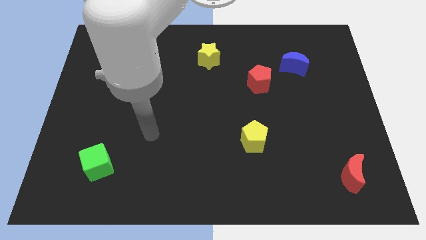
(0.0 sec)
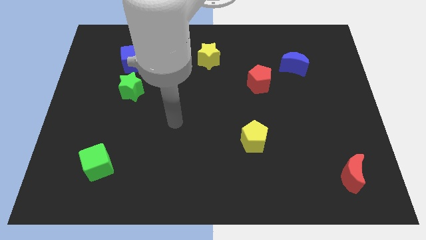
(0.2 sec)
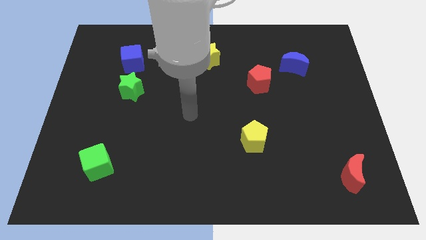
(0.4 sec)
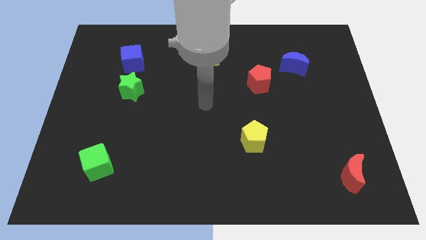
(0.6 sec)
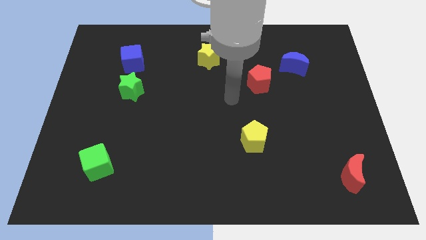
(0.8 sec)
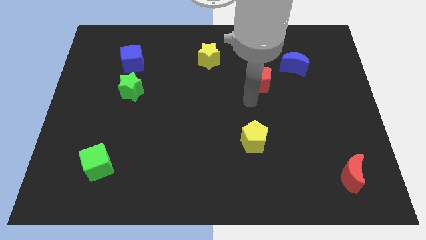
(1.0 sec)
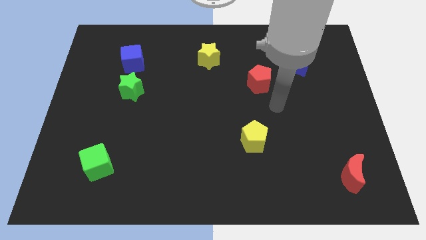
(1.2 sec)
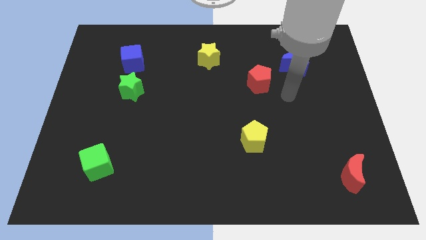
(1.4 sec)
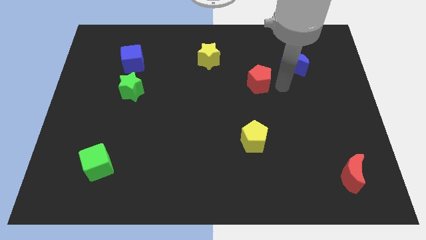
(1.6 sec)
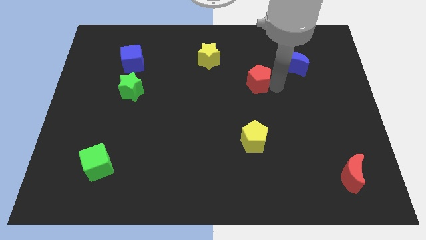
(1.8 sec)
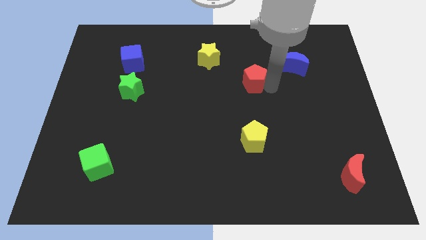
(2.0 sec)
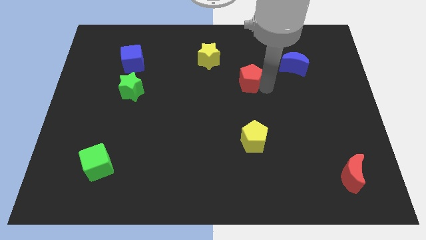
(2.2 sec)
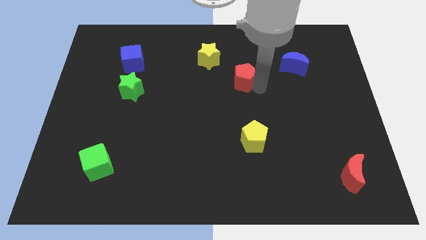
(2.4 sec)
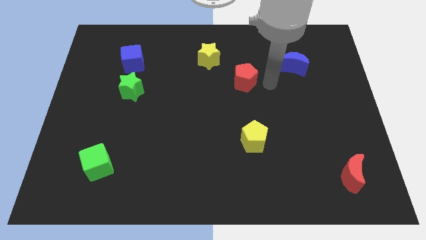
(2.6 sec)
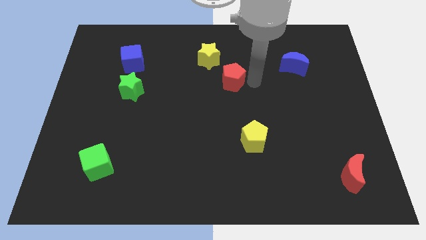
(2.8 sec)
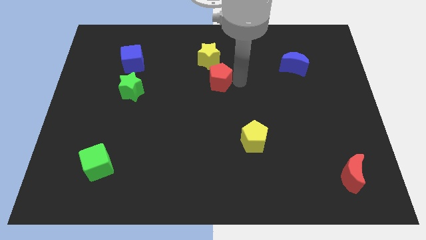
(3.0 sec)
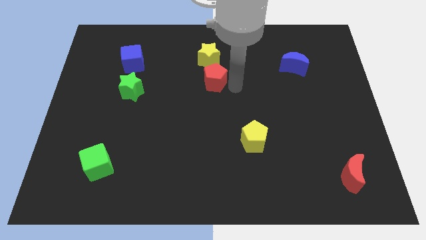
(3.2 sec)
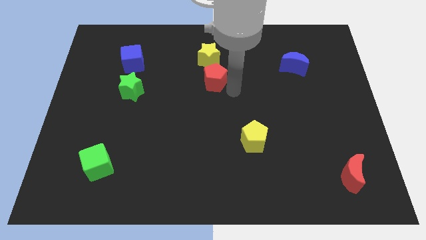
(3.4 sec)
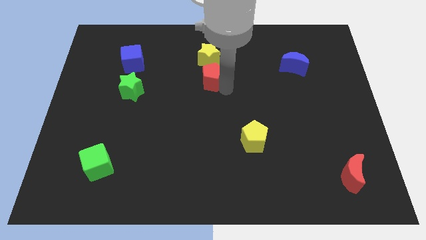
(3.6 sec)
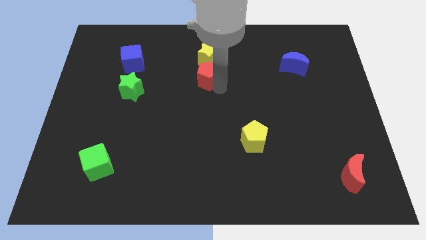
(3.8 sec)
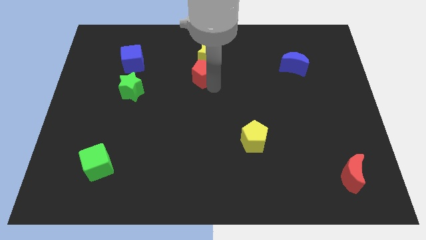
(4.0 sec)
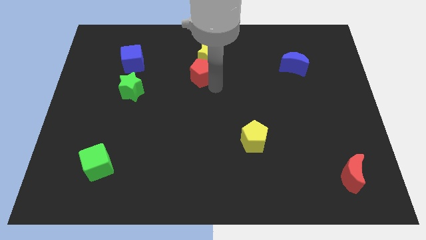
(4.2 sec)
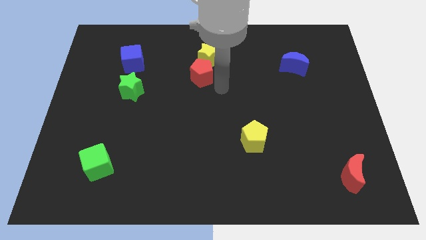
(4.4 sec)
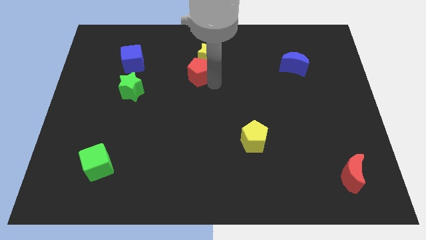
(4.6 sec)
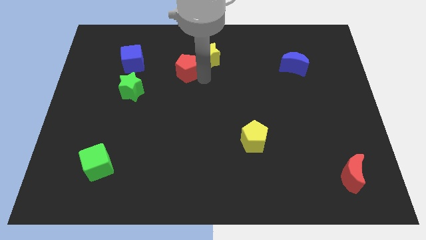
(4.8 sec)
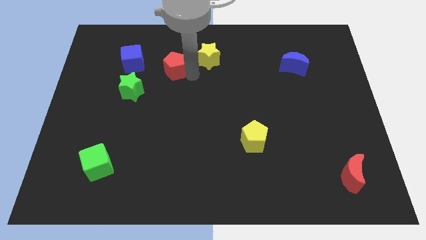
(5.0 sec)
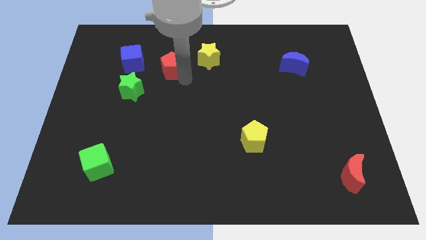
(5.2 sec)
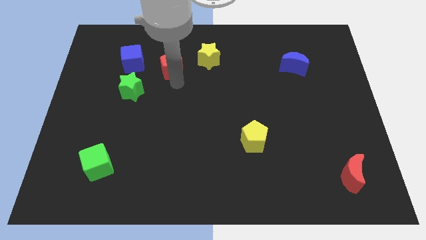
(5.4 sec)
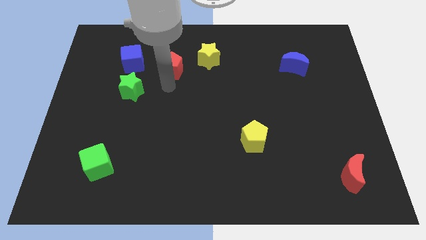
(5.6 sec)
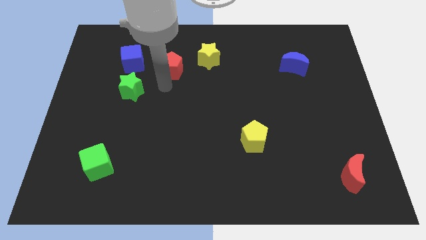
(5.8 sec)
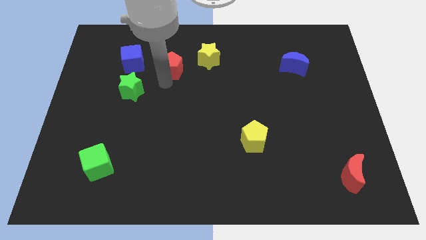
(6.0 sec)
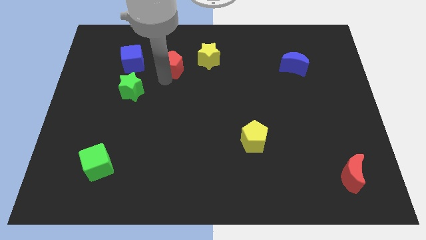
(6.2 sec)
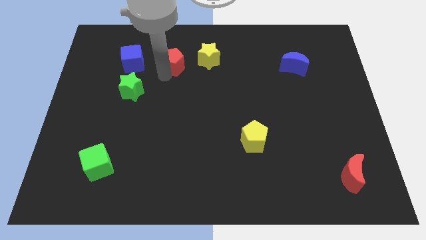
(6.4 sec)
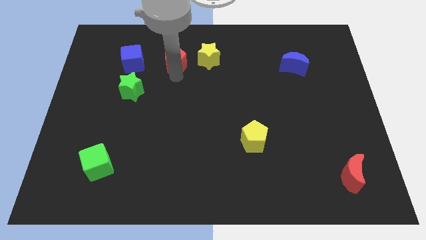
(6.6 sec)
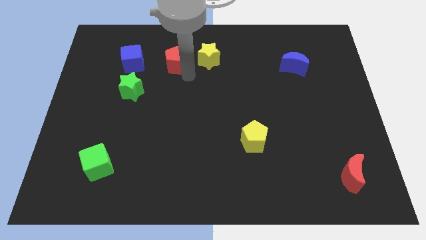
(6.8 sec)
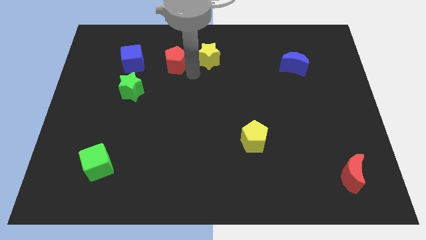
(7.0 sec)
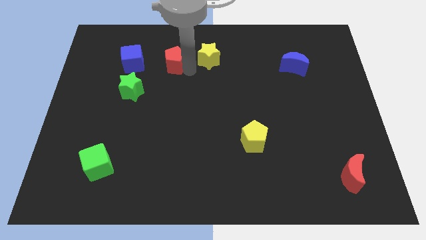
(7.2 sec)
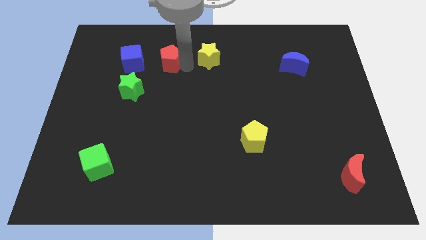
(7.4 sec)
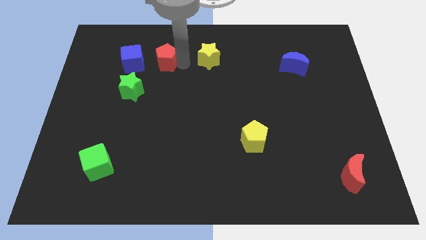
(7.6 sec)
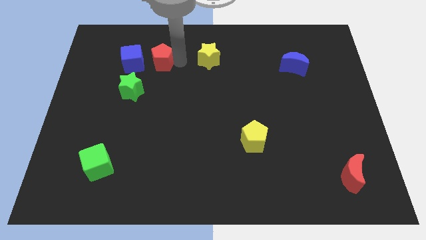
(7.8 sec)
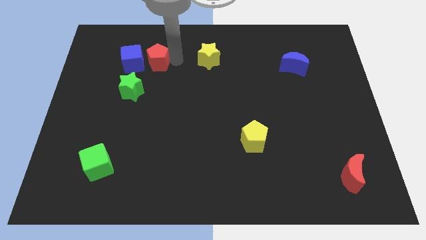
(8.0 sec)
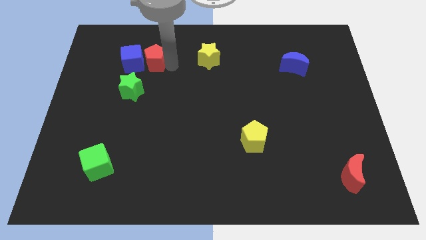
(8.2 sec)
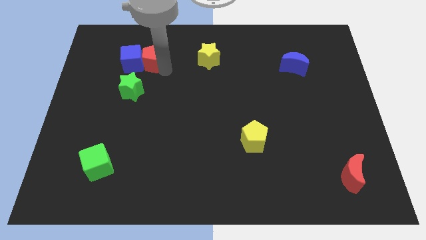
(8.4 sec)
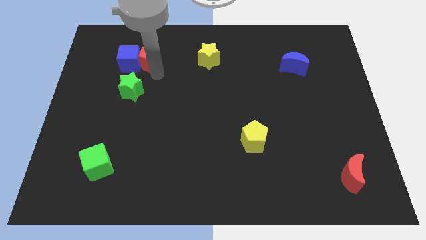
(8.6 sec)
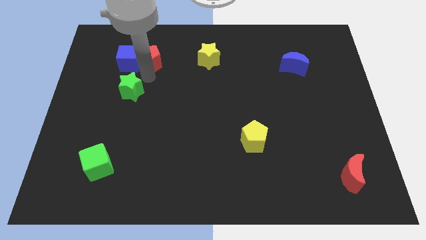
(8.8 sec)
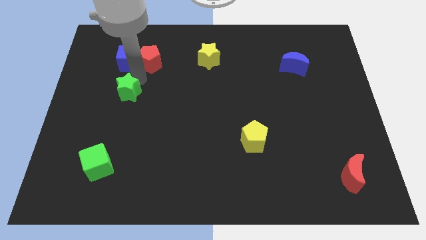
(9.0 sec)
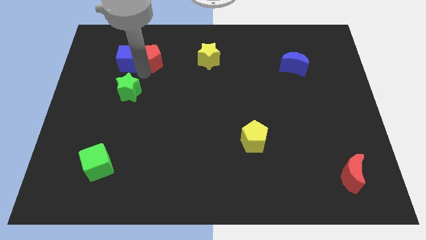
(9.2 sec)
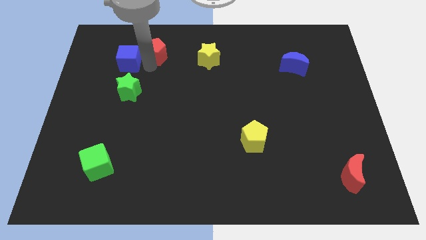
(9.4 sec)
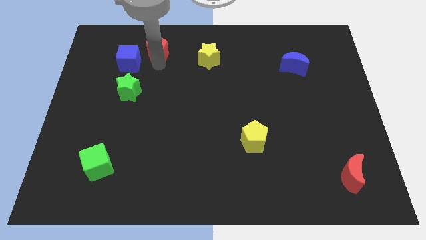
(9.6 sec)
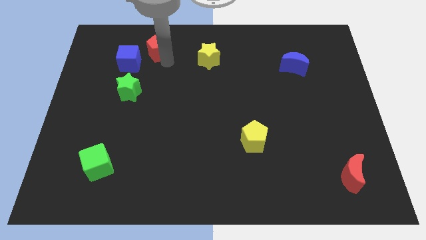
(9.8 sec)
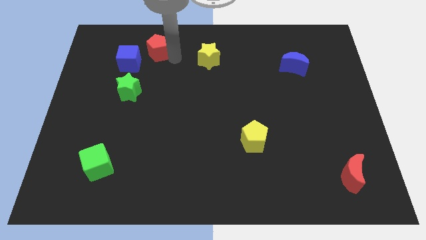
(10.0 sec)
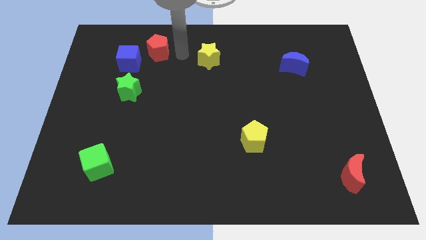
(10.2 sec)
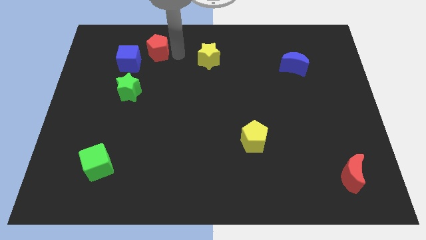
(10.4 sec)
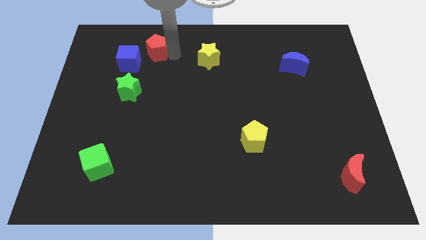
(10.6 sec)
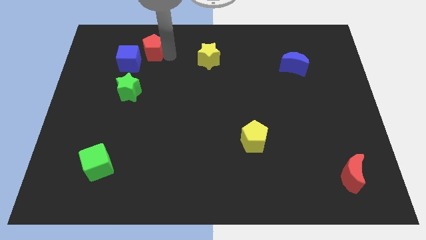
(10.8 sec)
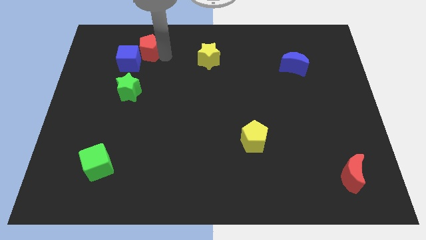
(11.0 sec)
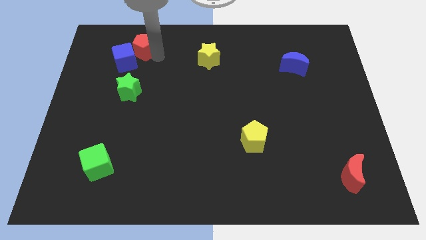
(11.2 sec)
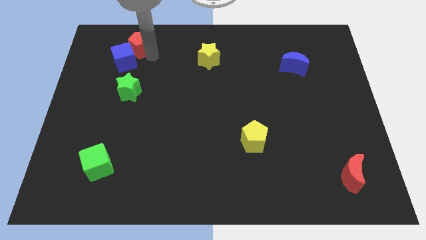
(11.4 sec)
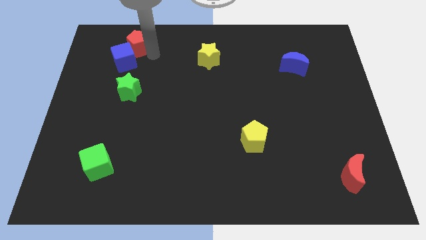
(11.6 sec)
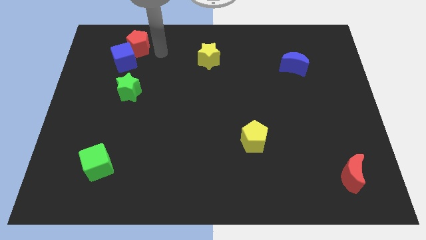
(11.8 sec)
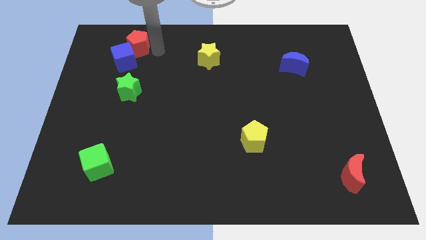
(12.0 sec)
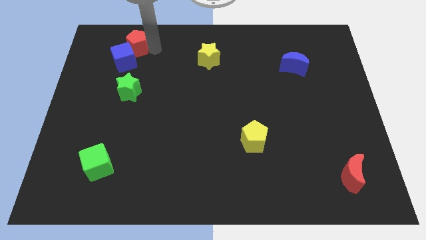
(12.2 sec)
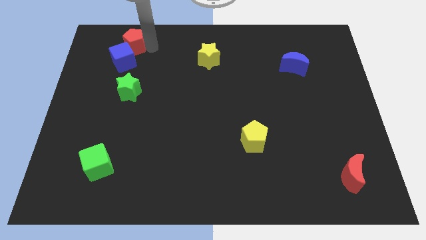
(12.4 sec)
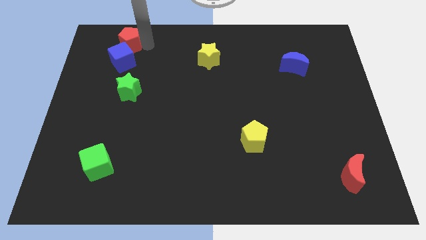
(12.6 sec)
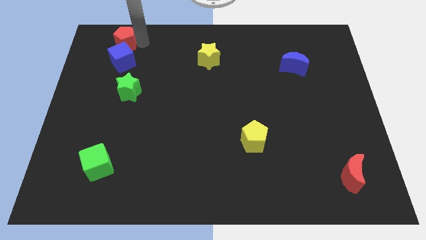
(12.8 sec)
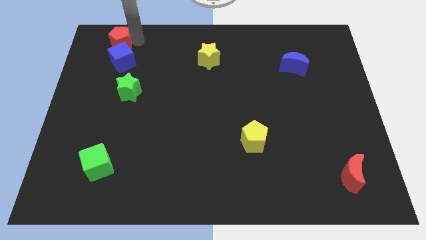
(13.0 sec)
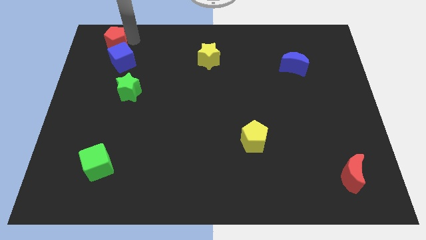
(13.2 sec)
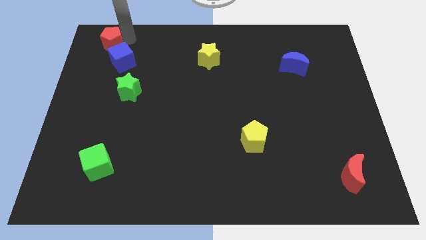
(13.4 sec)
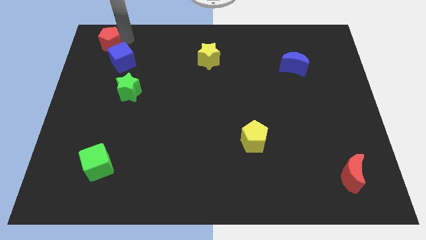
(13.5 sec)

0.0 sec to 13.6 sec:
push the red pentagon to the top left corner
